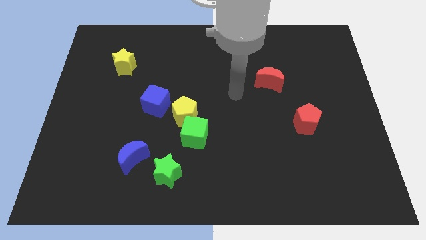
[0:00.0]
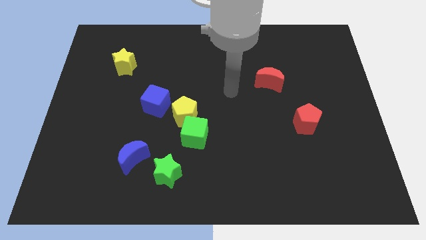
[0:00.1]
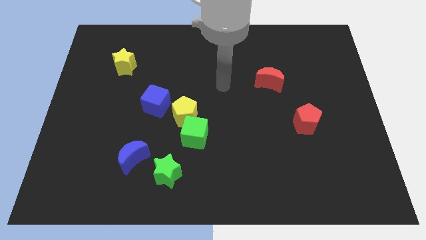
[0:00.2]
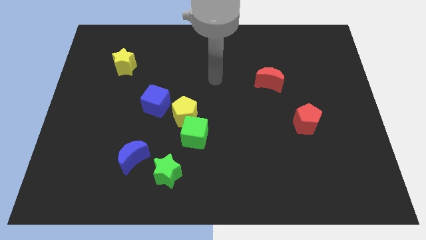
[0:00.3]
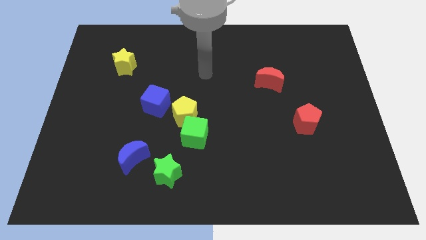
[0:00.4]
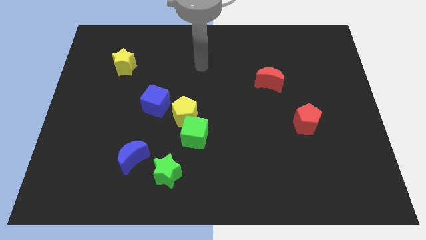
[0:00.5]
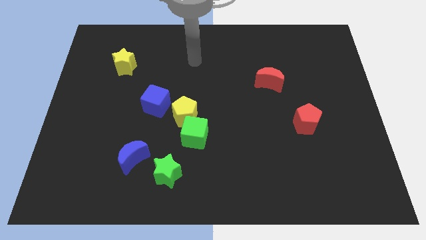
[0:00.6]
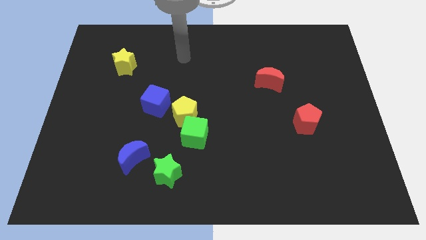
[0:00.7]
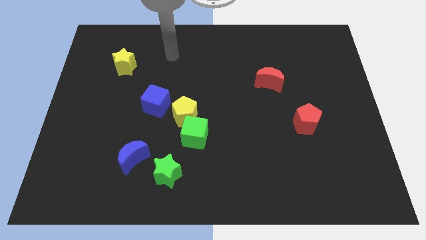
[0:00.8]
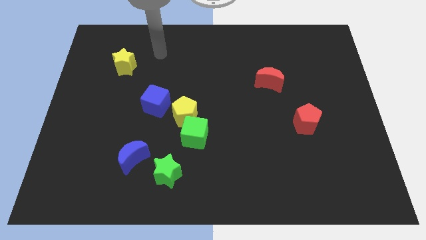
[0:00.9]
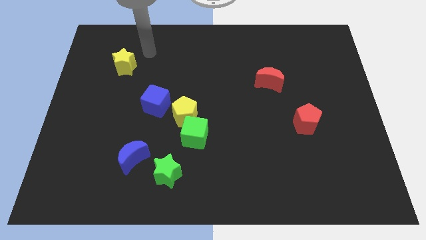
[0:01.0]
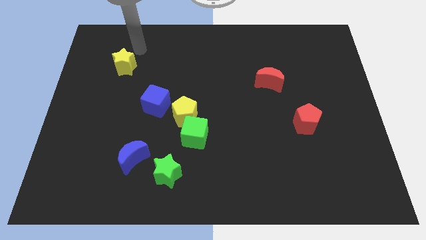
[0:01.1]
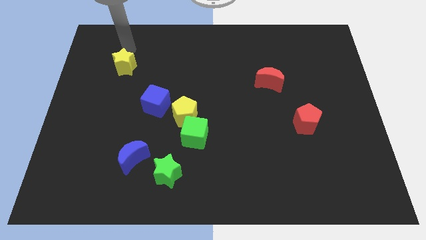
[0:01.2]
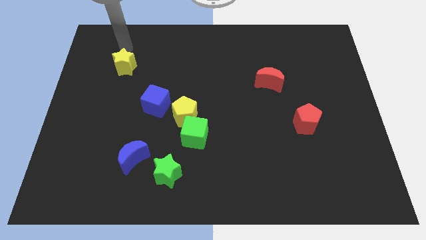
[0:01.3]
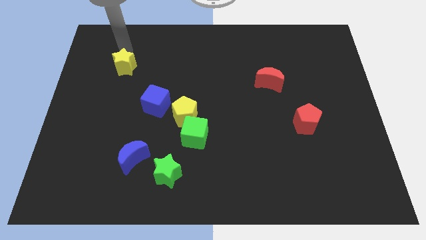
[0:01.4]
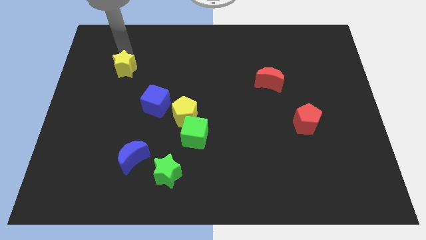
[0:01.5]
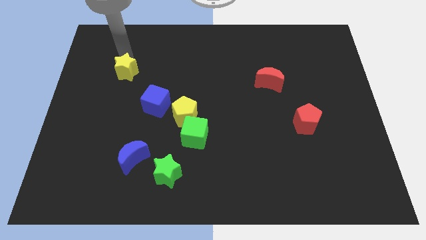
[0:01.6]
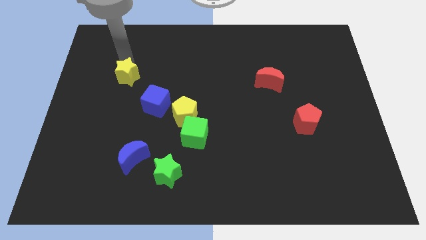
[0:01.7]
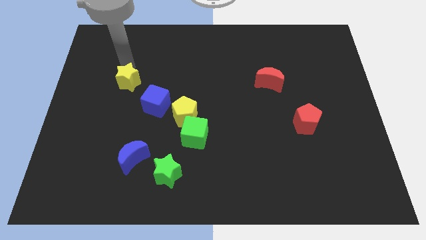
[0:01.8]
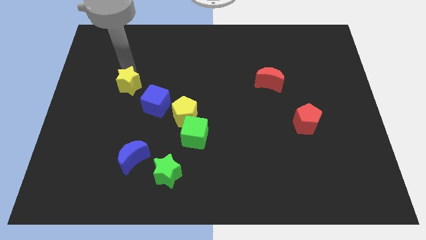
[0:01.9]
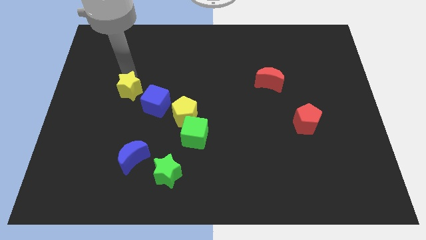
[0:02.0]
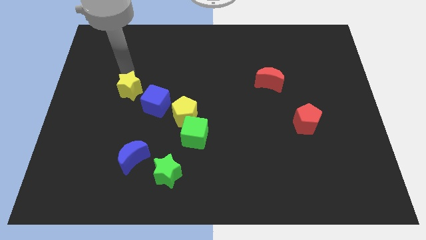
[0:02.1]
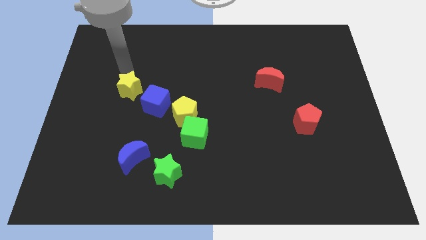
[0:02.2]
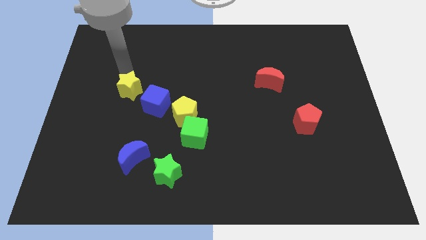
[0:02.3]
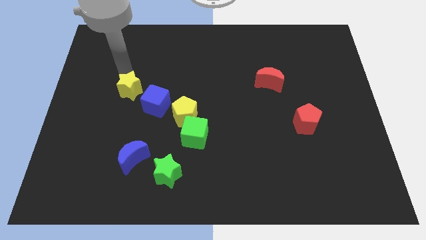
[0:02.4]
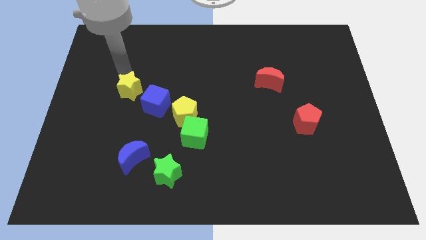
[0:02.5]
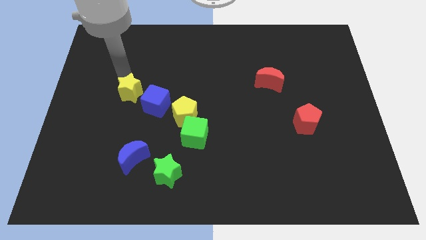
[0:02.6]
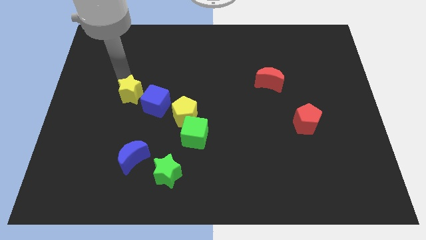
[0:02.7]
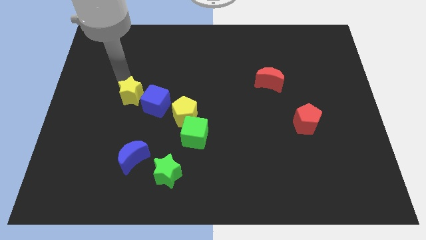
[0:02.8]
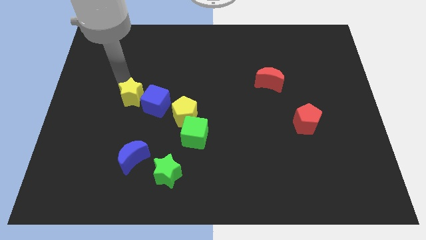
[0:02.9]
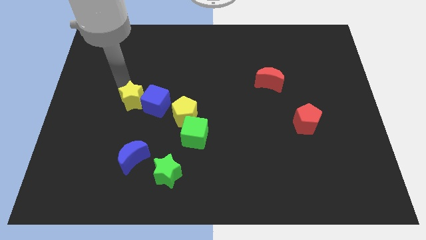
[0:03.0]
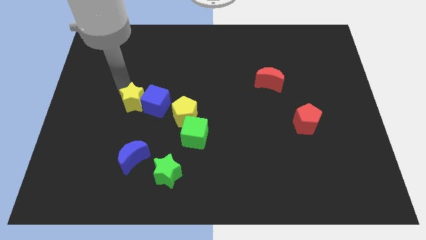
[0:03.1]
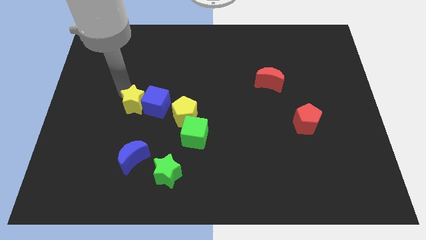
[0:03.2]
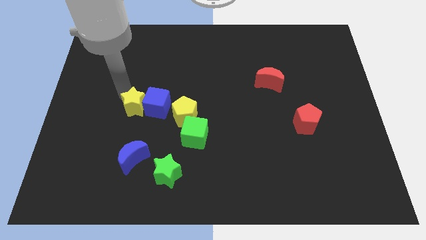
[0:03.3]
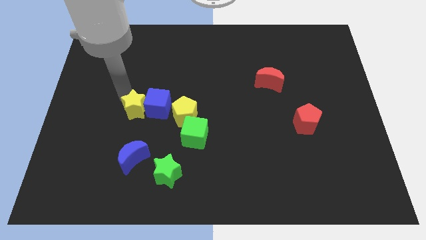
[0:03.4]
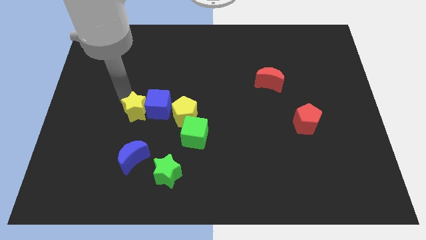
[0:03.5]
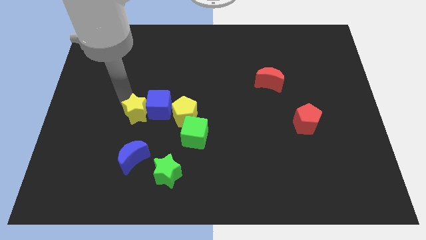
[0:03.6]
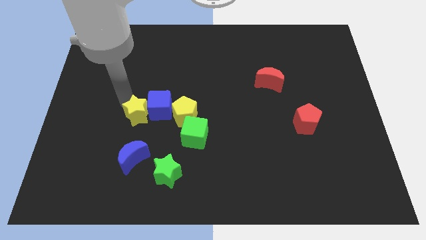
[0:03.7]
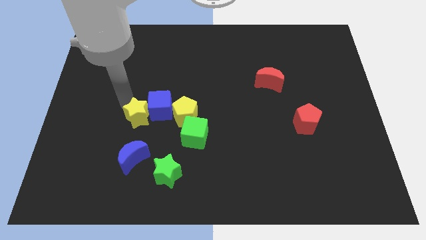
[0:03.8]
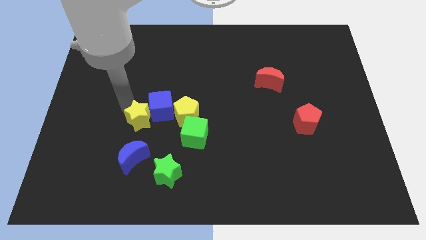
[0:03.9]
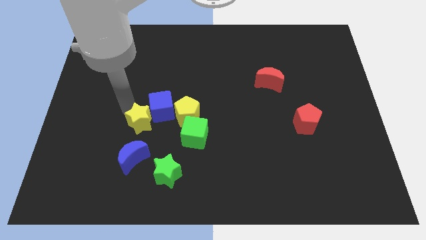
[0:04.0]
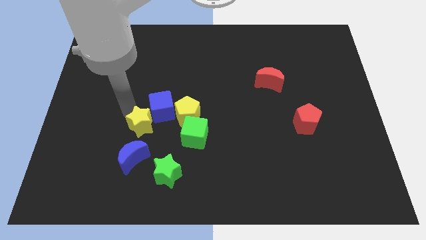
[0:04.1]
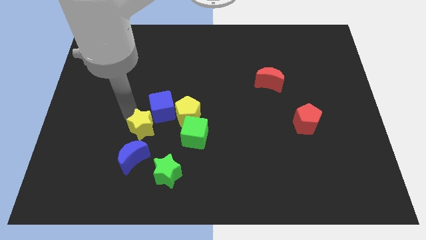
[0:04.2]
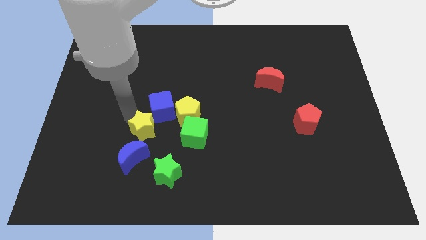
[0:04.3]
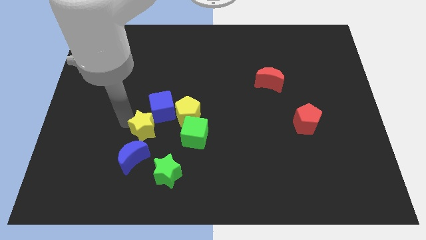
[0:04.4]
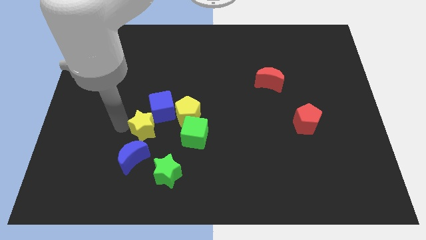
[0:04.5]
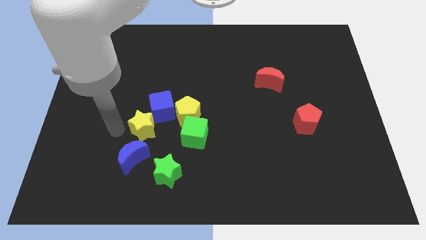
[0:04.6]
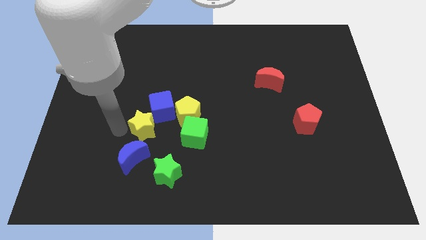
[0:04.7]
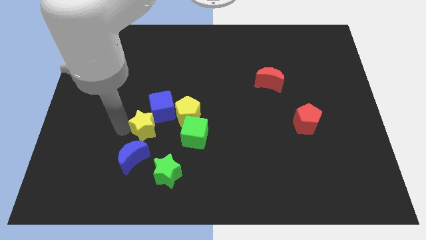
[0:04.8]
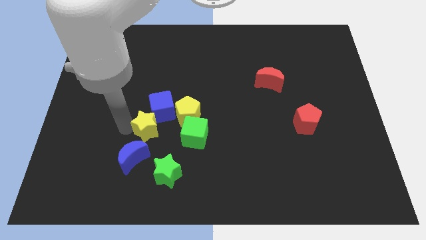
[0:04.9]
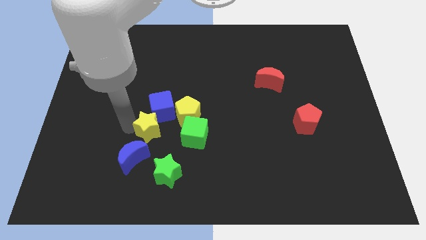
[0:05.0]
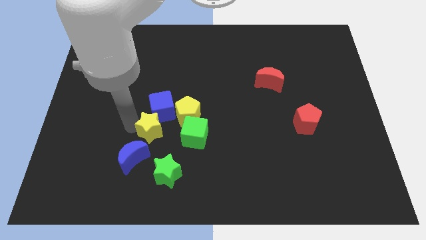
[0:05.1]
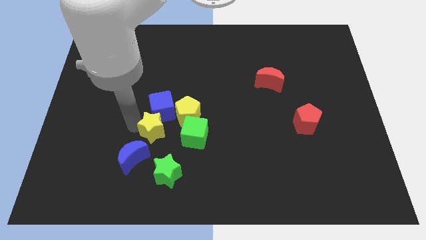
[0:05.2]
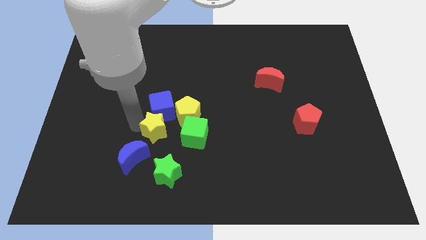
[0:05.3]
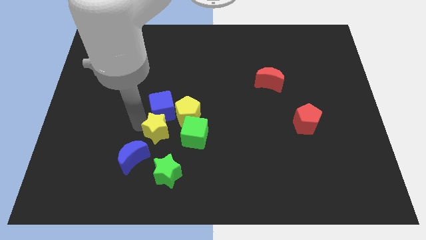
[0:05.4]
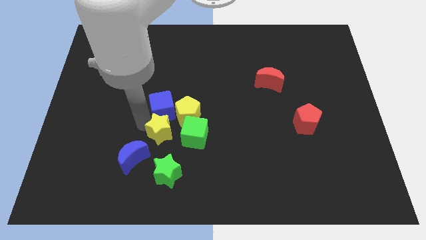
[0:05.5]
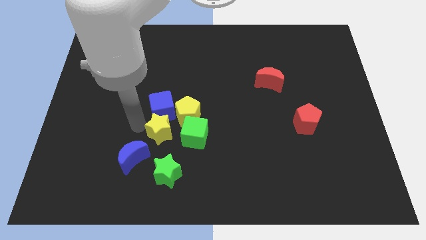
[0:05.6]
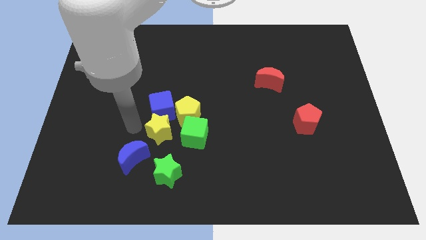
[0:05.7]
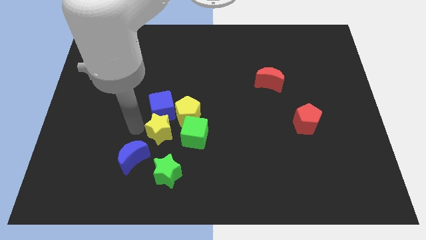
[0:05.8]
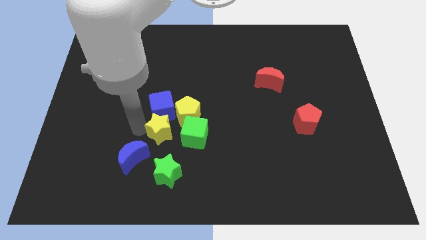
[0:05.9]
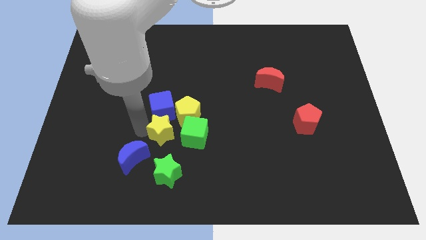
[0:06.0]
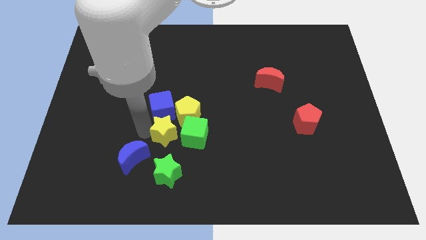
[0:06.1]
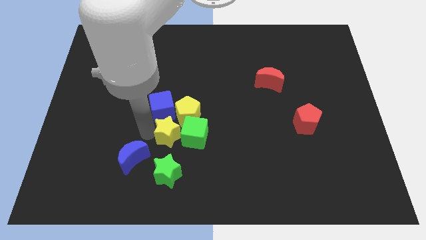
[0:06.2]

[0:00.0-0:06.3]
put the yellow star next to the green cube
